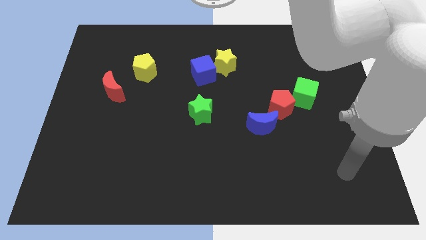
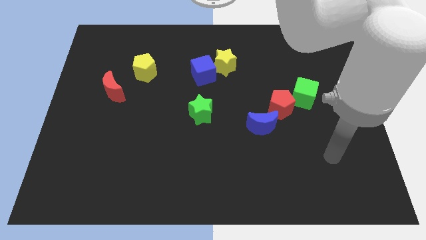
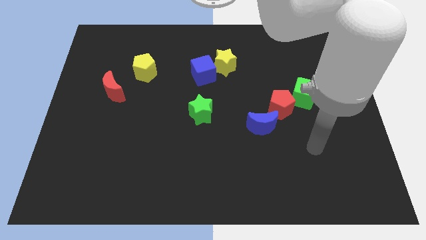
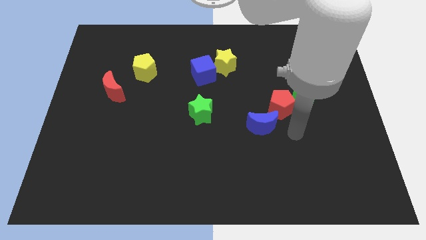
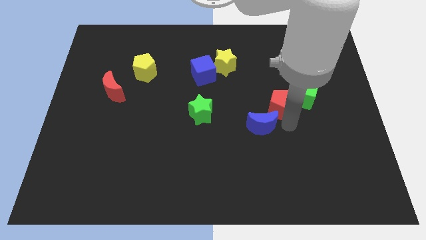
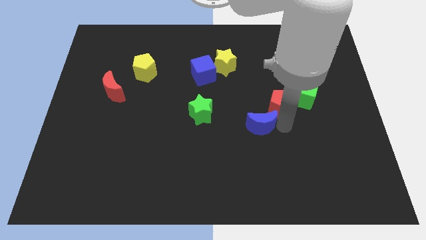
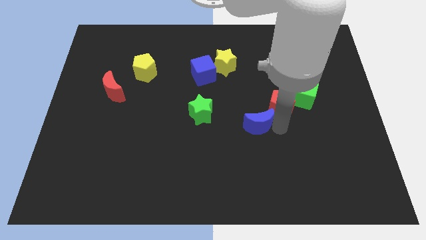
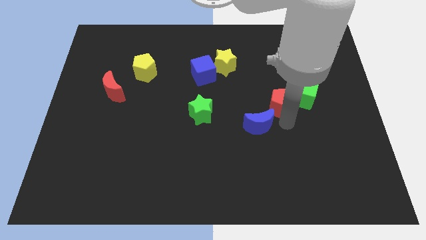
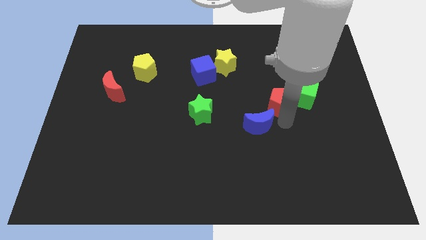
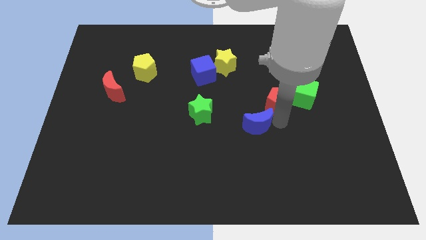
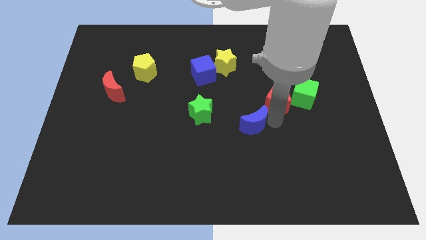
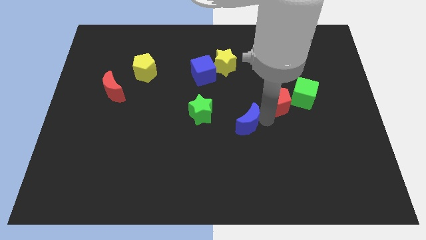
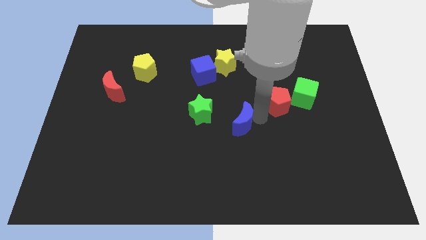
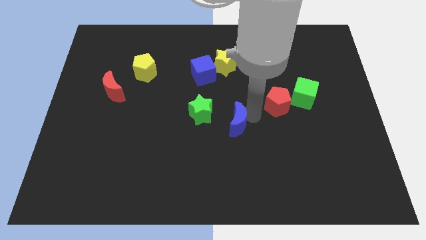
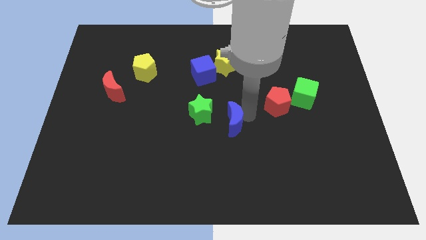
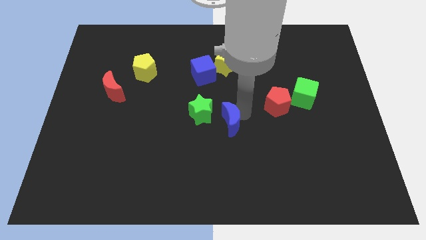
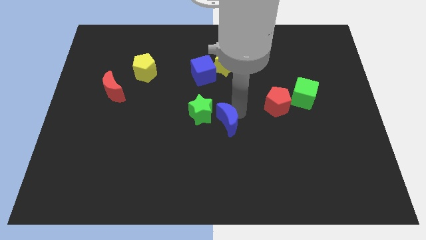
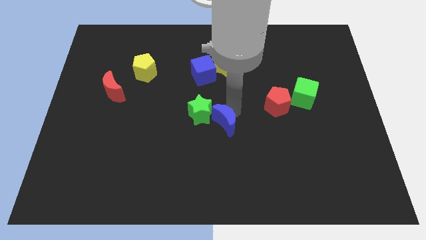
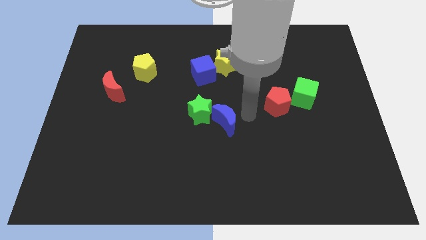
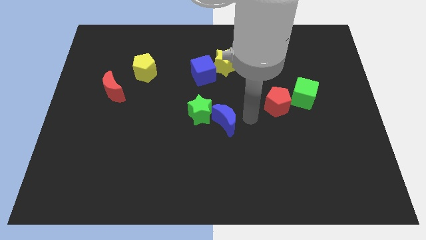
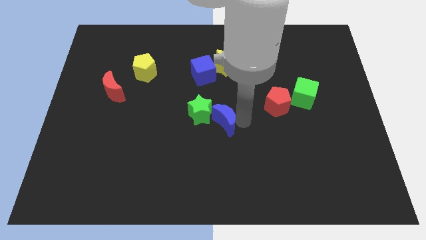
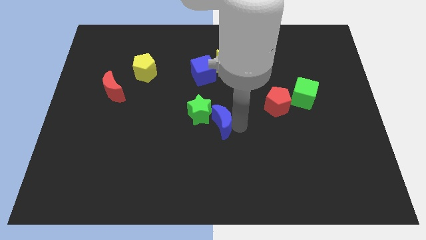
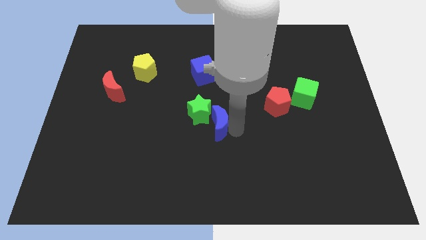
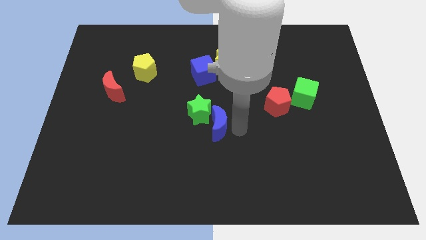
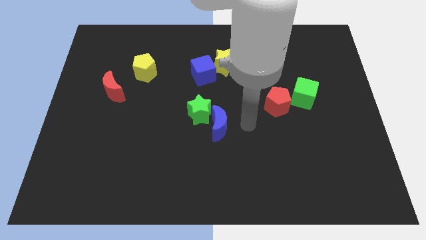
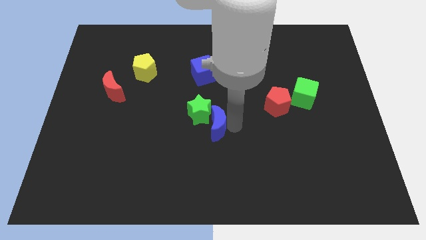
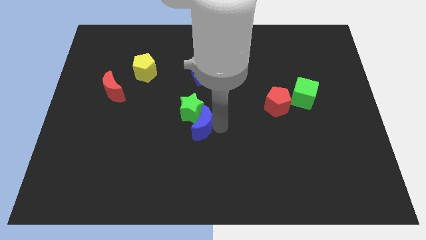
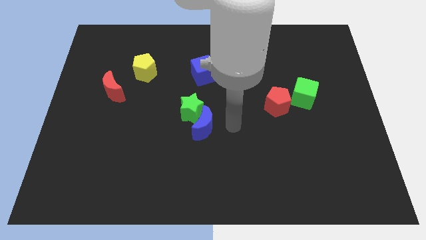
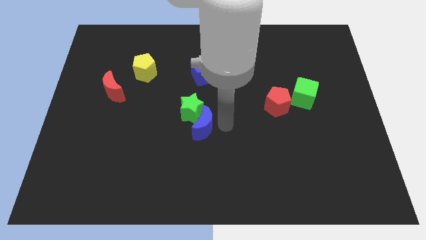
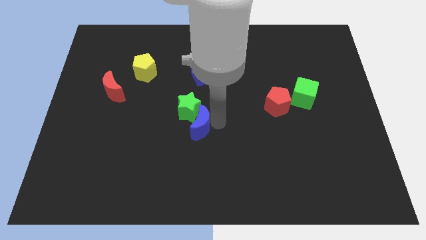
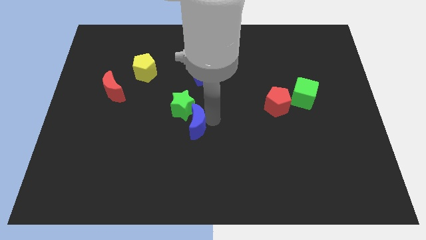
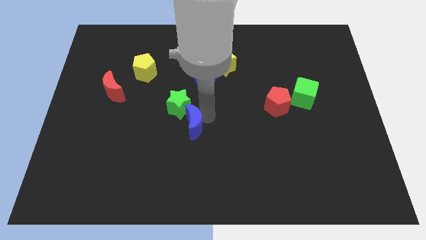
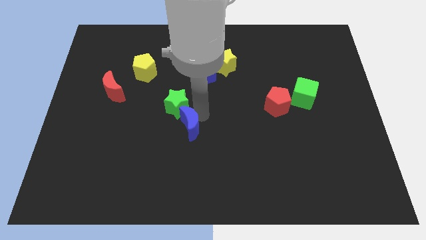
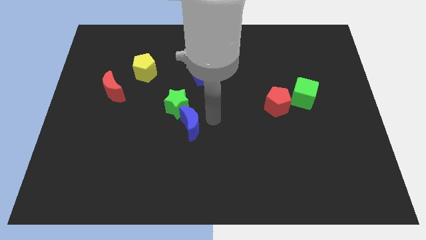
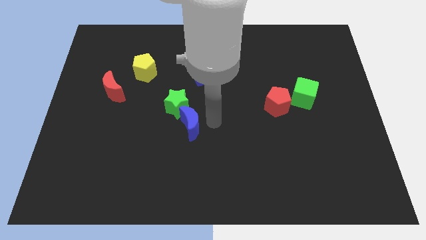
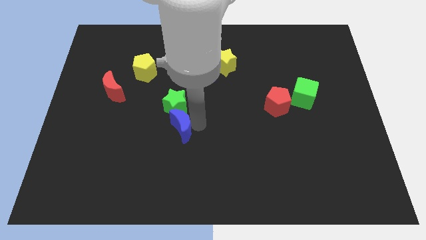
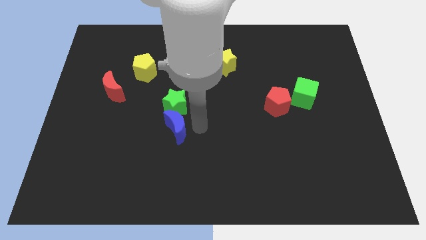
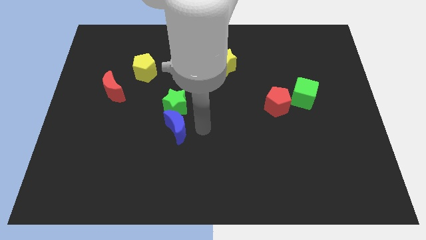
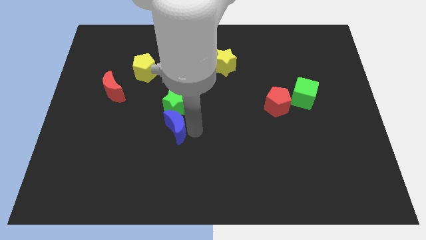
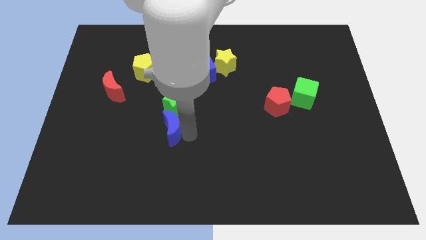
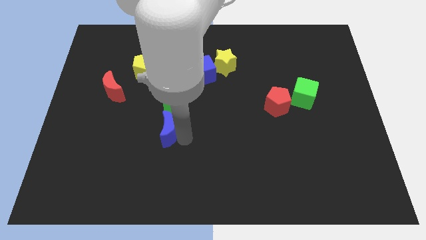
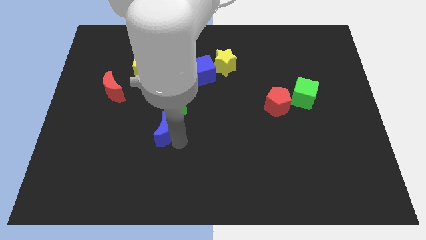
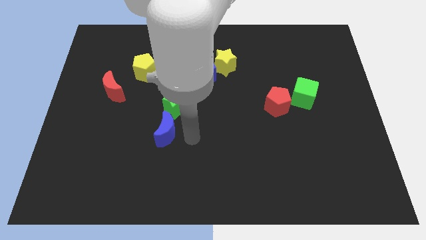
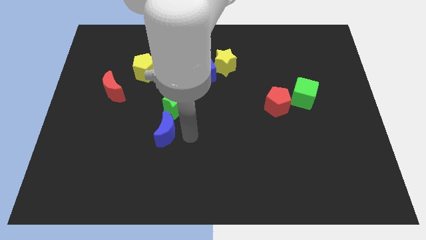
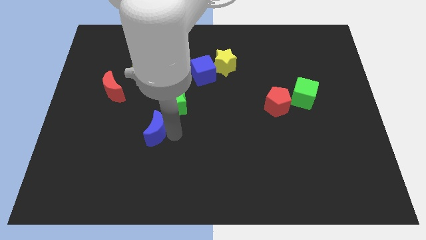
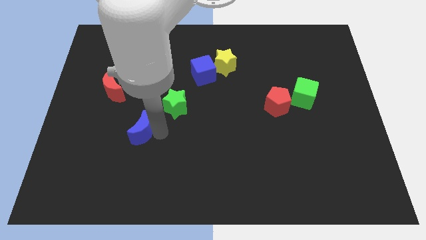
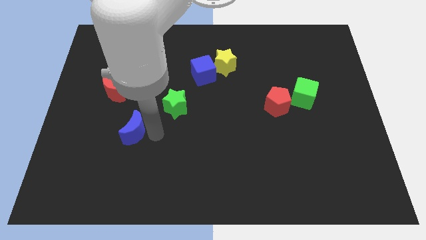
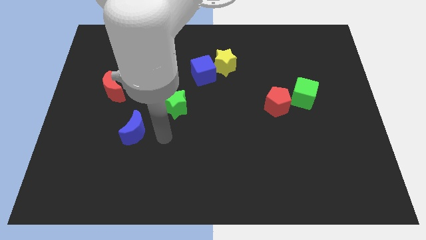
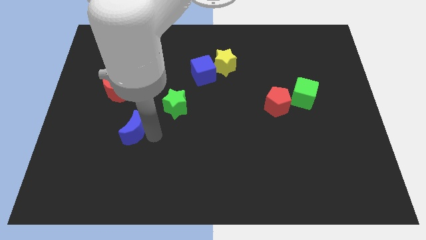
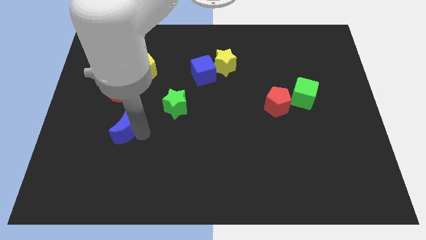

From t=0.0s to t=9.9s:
move the blue moon to the bottom of the red moon

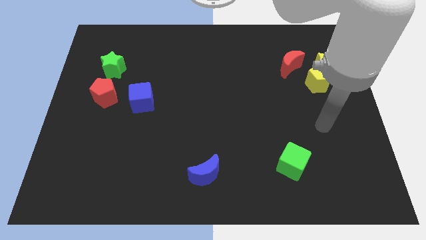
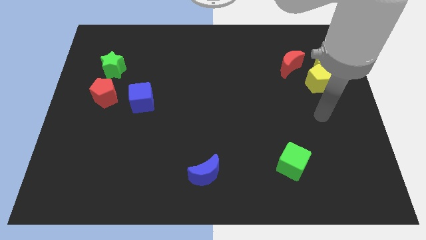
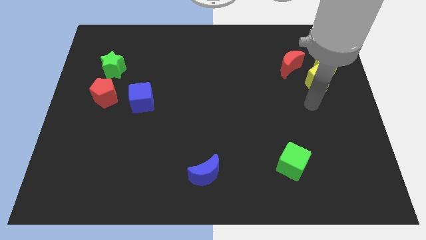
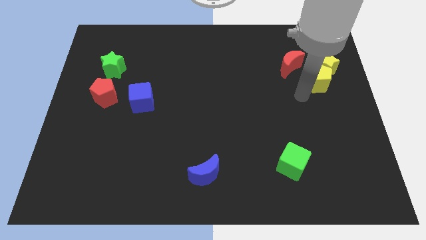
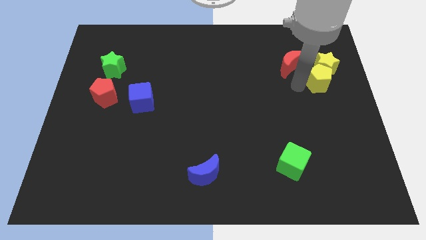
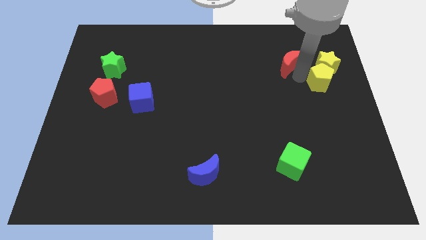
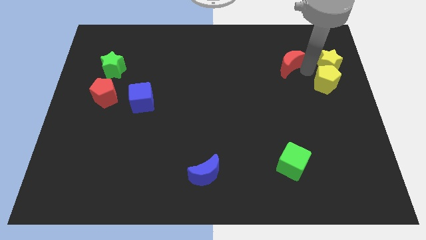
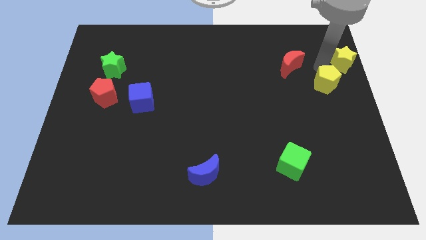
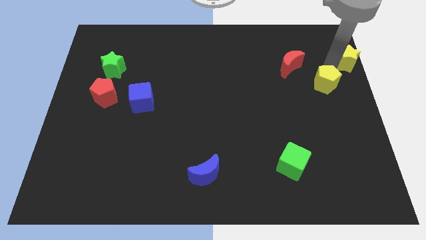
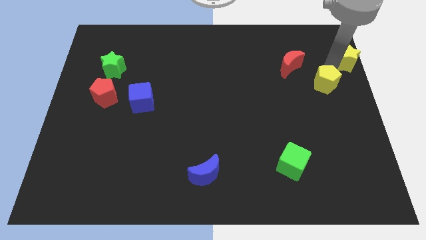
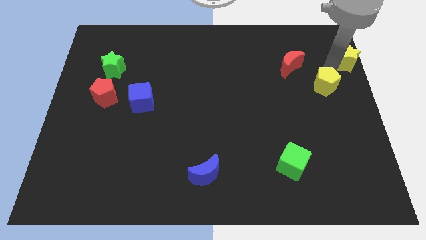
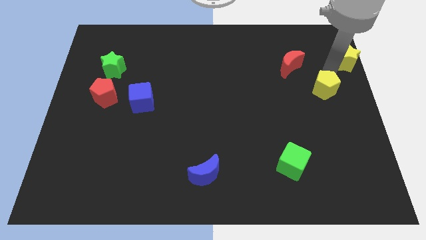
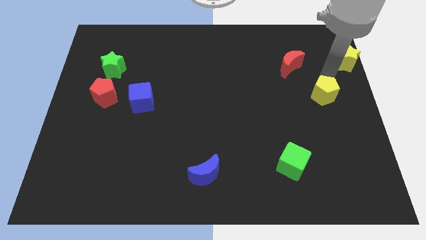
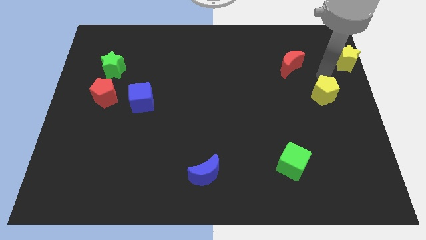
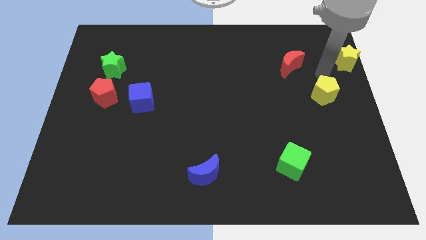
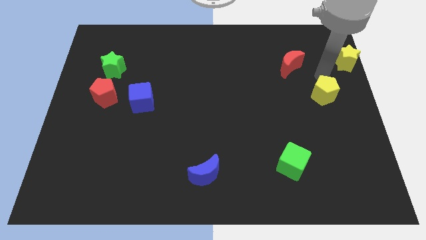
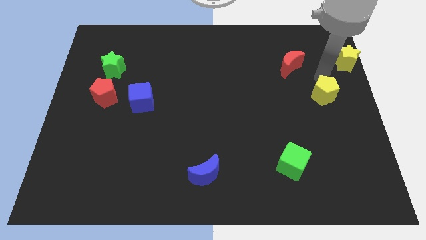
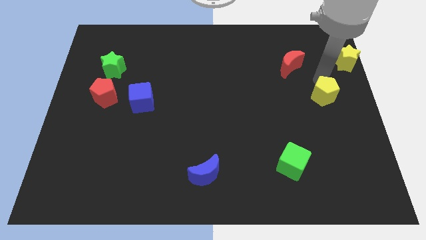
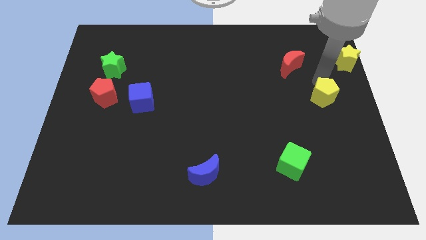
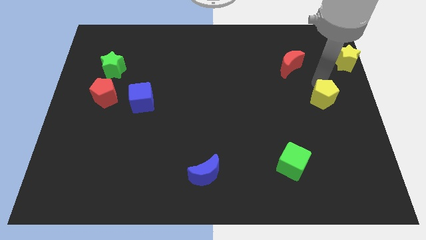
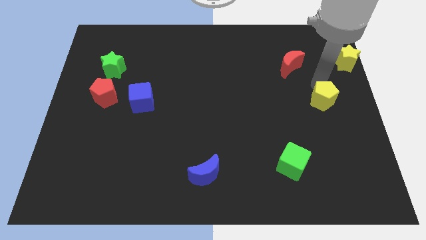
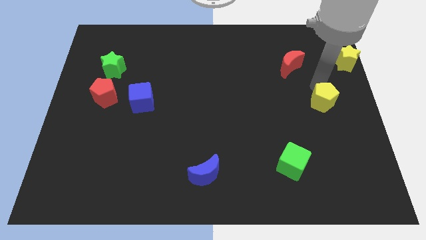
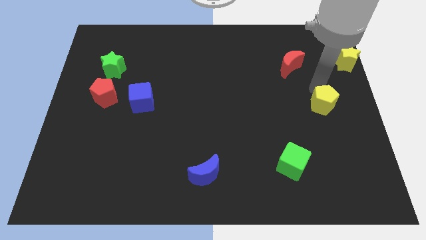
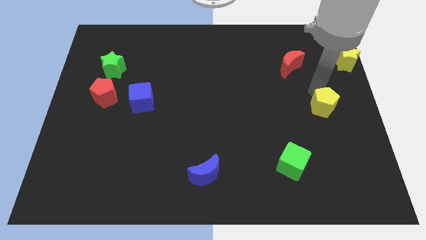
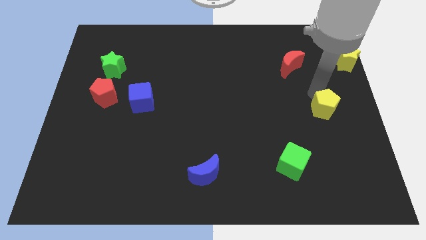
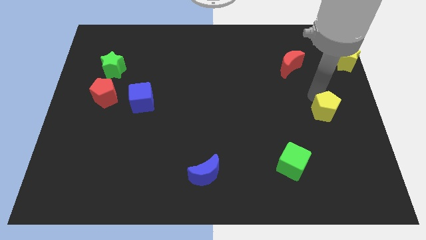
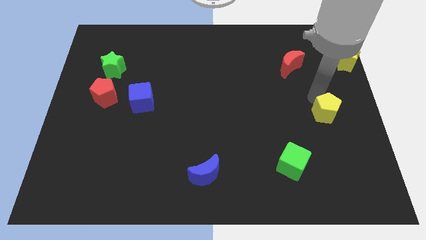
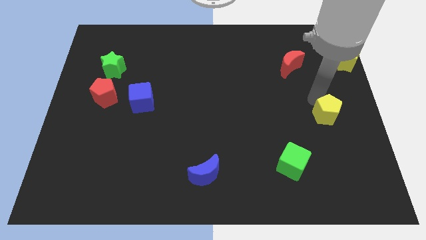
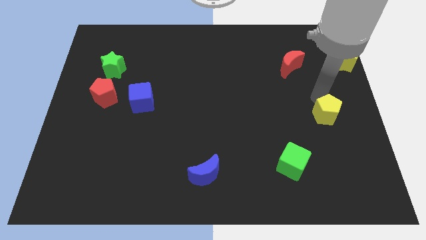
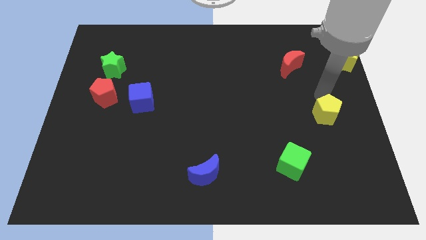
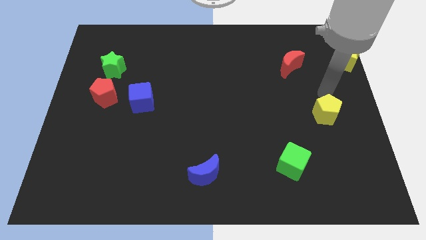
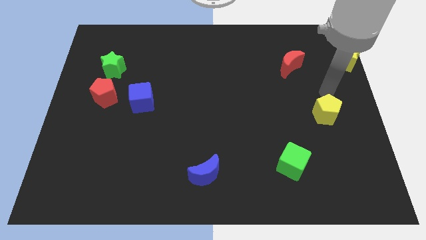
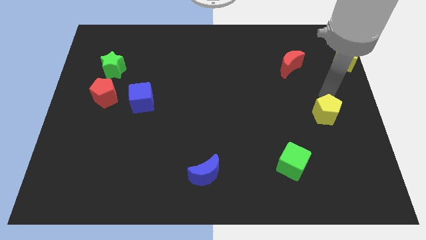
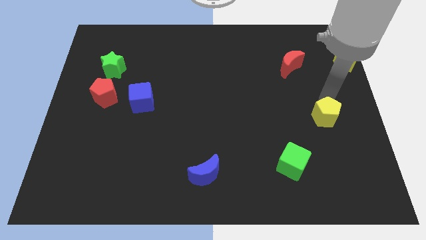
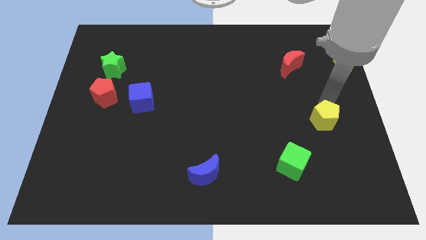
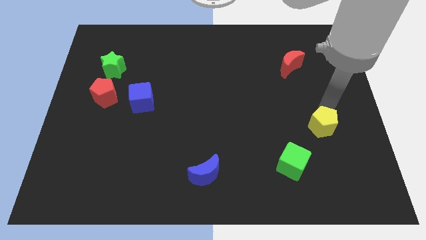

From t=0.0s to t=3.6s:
move the yellow pentagon to the top right side of the green cube

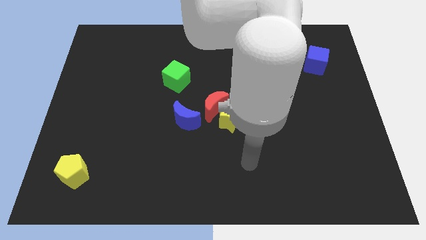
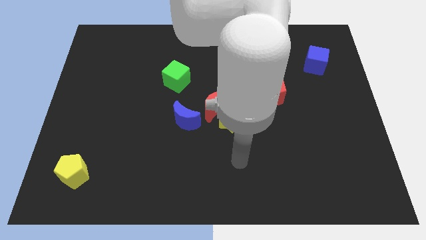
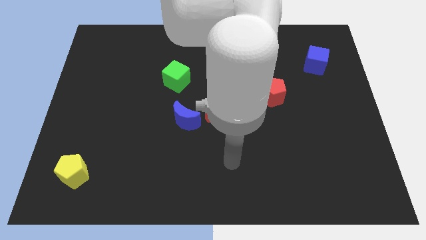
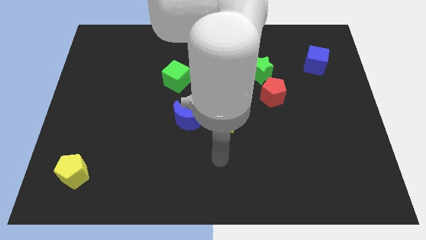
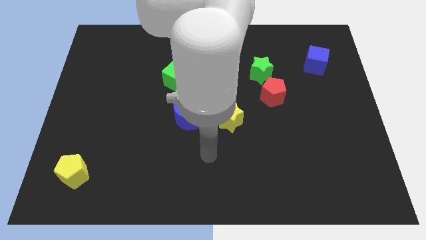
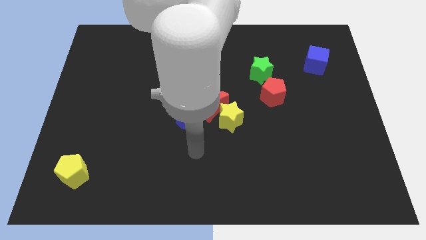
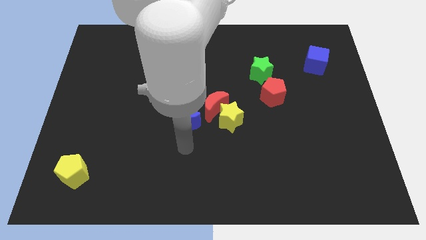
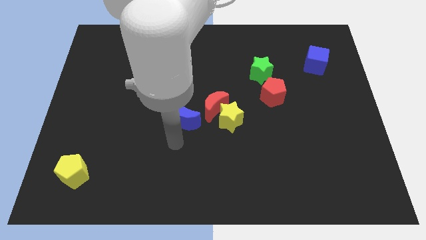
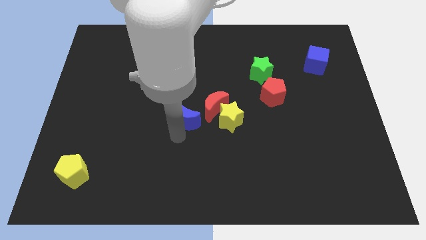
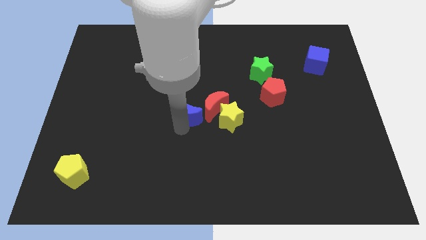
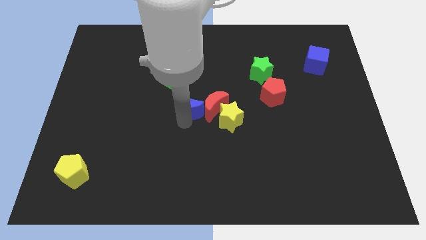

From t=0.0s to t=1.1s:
slide the blue moon to the bottom right of the green cube
